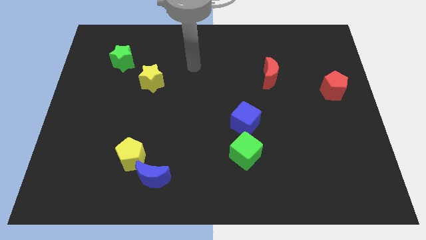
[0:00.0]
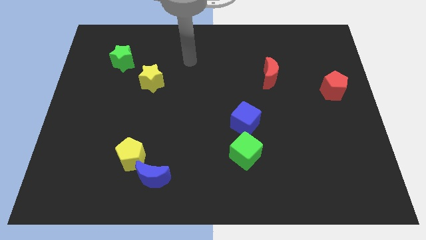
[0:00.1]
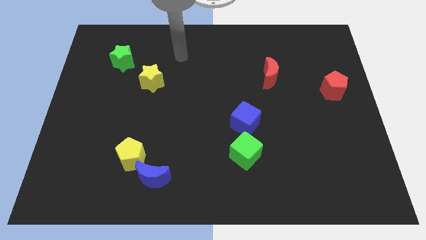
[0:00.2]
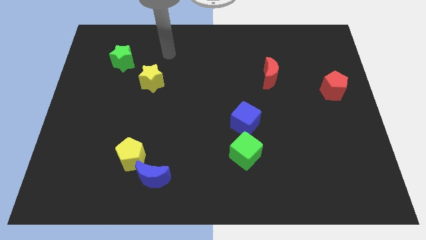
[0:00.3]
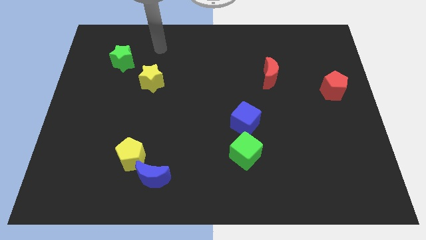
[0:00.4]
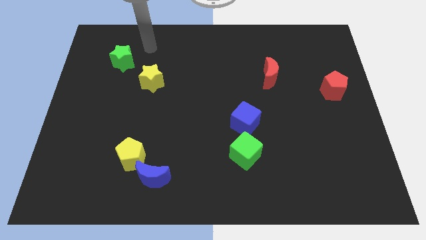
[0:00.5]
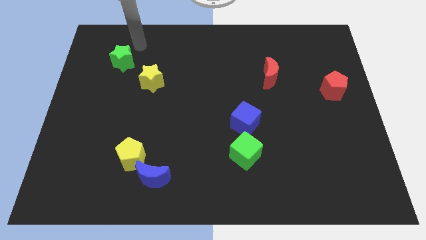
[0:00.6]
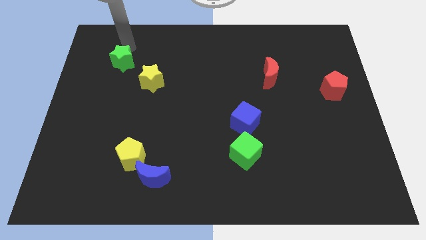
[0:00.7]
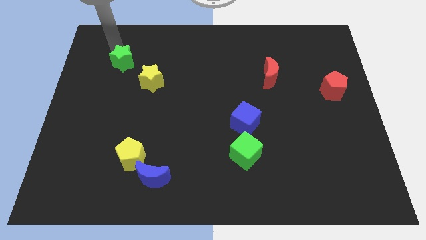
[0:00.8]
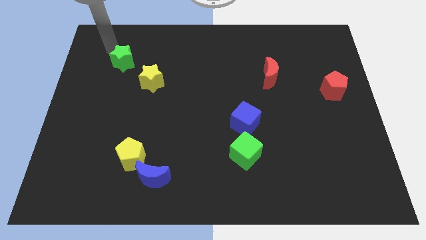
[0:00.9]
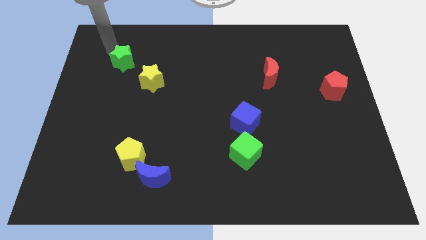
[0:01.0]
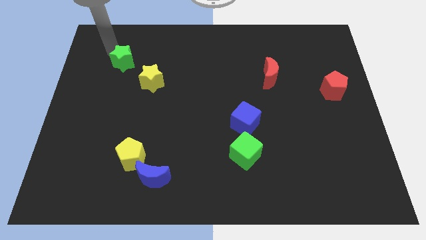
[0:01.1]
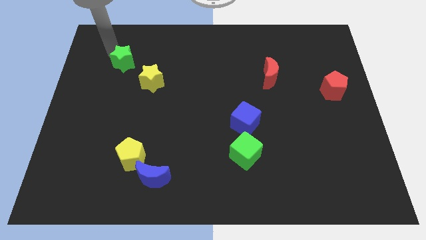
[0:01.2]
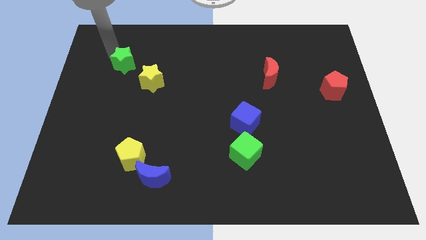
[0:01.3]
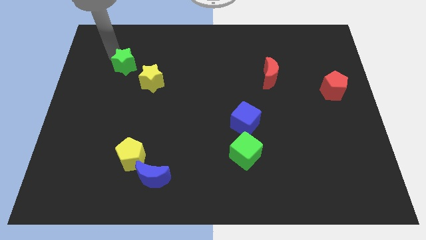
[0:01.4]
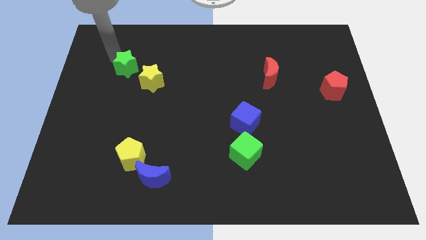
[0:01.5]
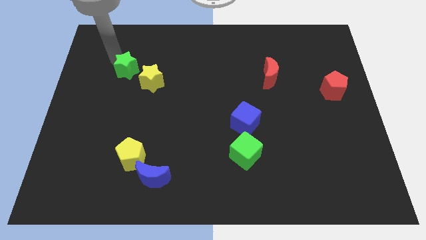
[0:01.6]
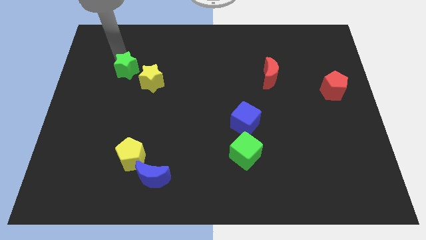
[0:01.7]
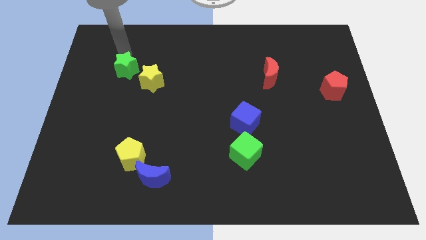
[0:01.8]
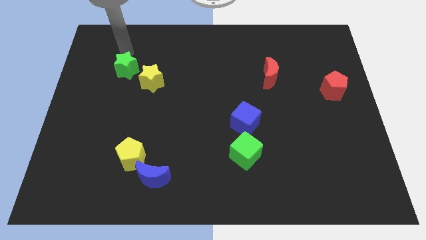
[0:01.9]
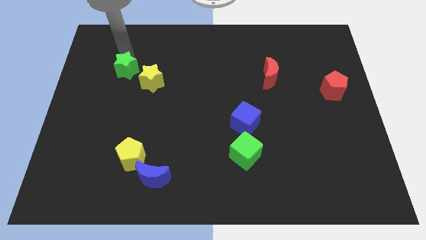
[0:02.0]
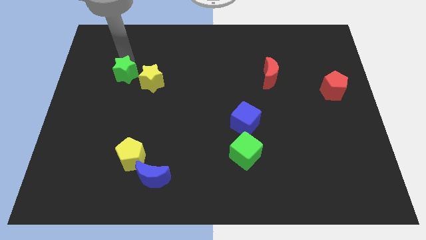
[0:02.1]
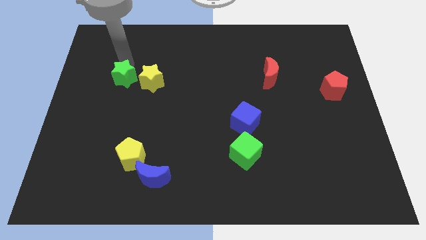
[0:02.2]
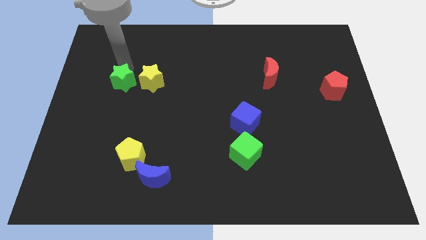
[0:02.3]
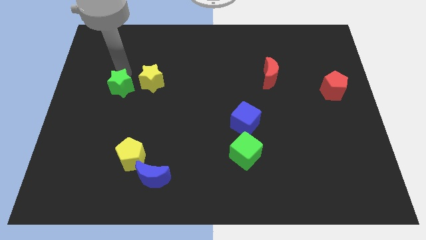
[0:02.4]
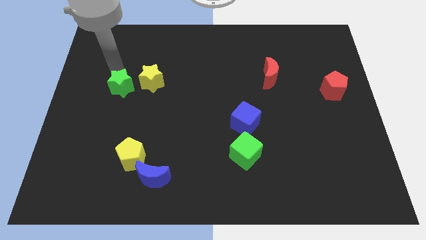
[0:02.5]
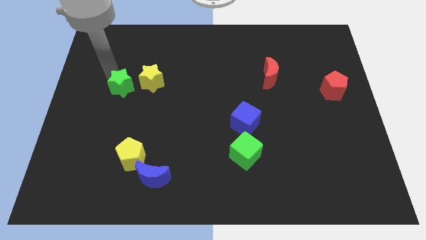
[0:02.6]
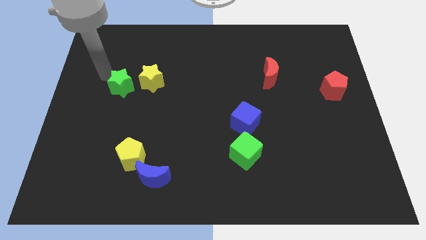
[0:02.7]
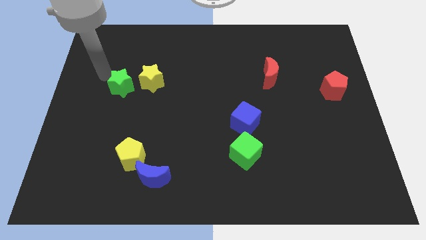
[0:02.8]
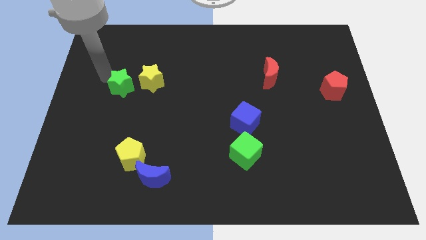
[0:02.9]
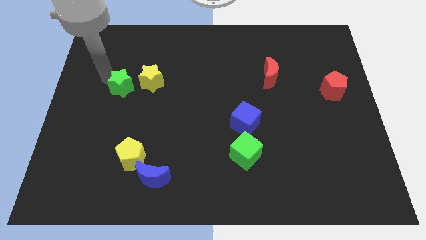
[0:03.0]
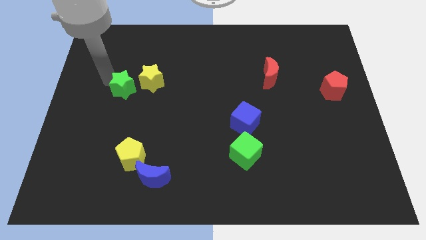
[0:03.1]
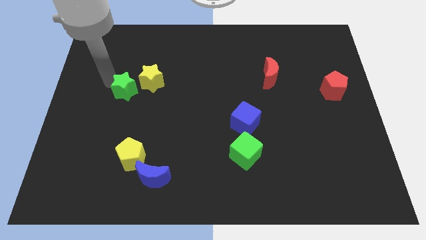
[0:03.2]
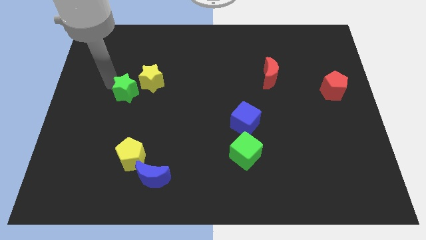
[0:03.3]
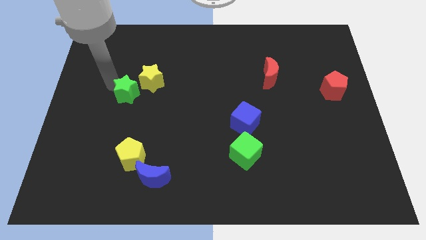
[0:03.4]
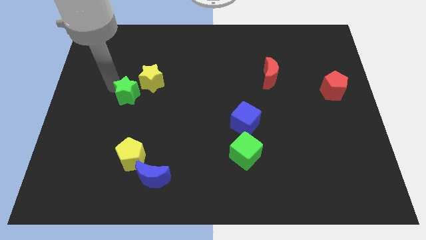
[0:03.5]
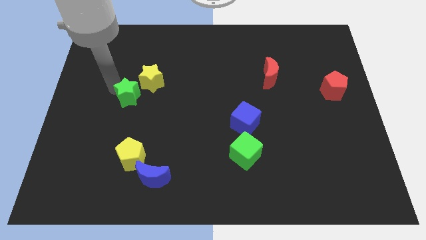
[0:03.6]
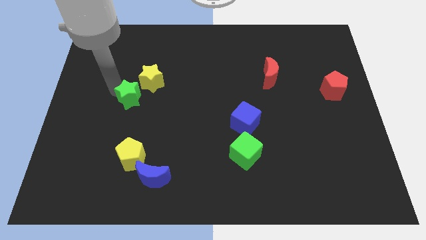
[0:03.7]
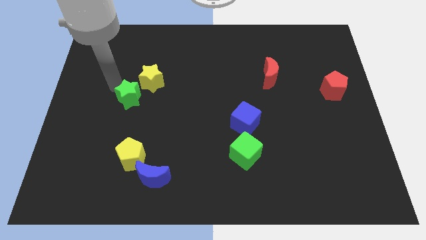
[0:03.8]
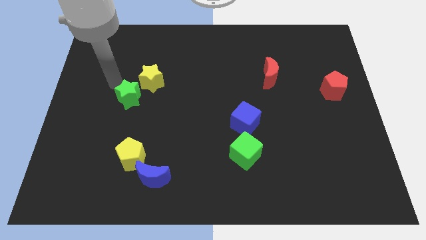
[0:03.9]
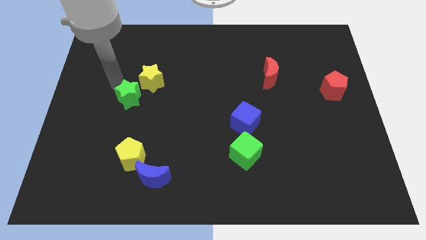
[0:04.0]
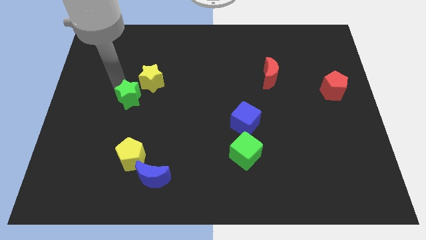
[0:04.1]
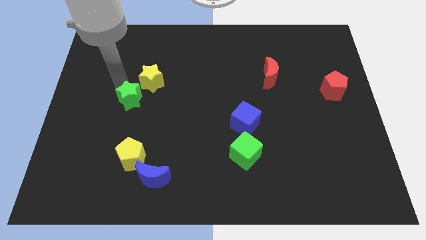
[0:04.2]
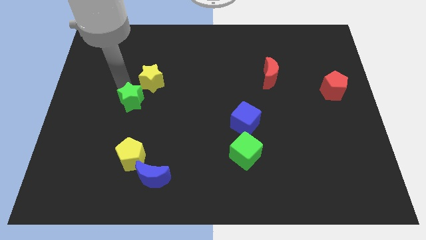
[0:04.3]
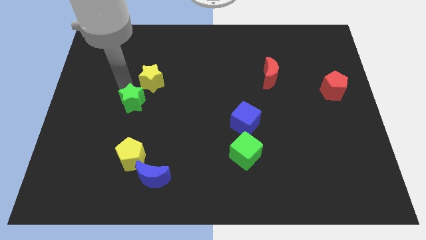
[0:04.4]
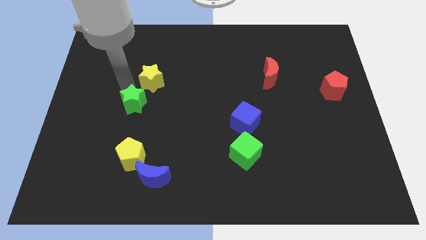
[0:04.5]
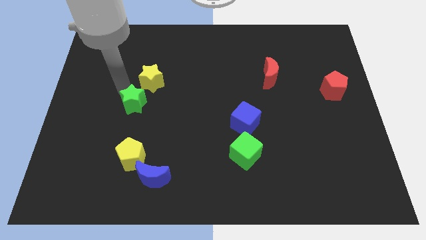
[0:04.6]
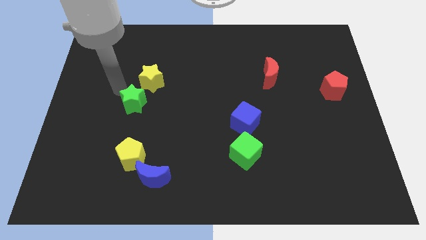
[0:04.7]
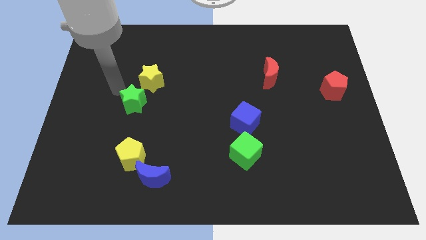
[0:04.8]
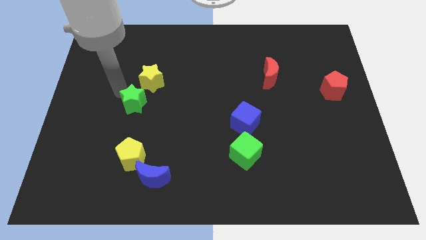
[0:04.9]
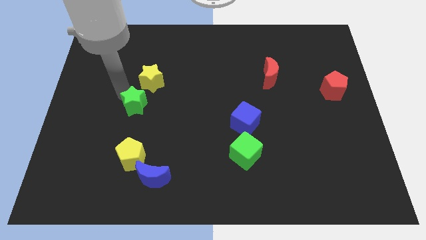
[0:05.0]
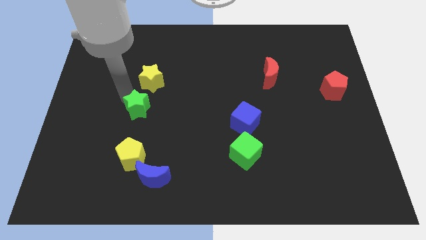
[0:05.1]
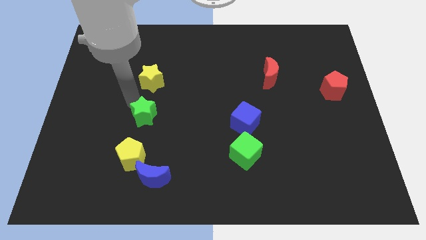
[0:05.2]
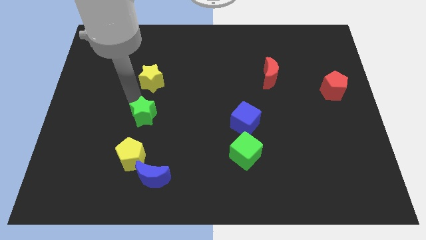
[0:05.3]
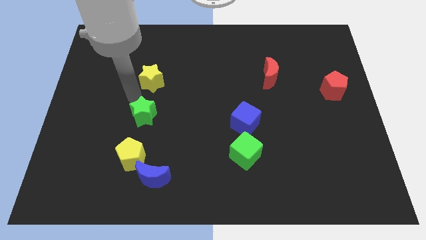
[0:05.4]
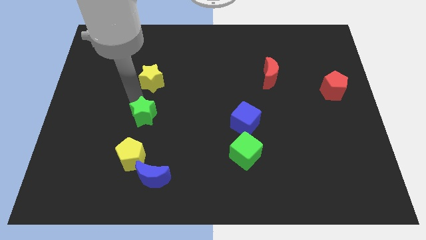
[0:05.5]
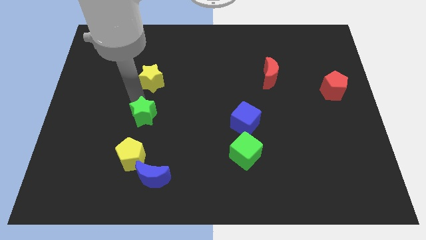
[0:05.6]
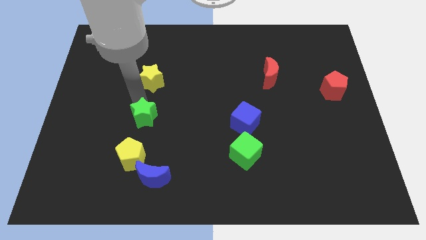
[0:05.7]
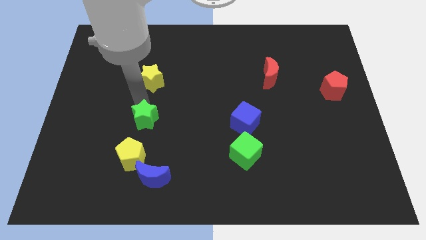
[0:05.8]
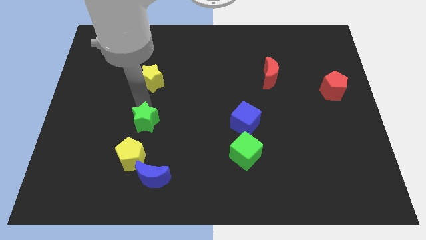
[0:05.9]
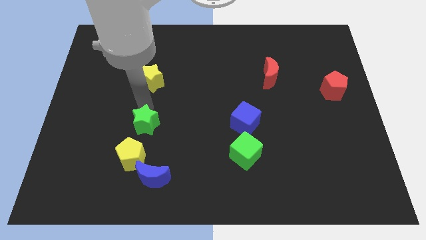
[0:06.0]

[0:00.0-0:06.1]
put the green star diagonally up and to the right of the yellow pentagon
